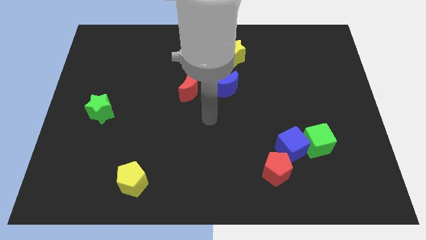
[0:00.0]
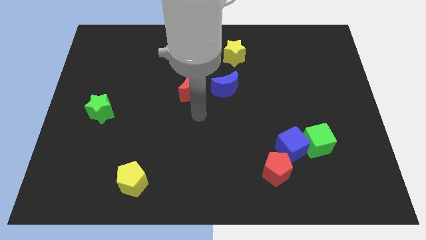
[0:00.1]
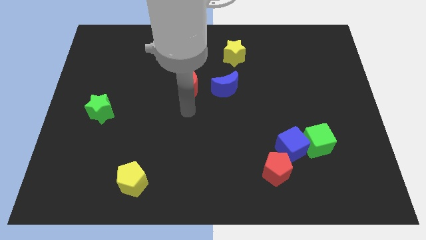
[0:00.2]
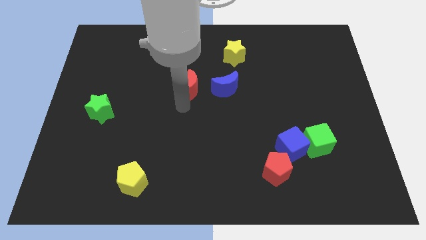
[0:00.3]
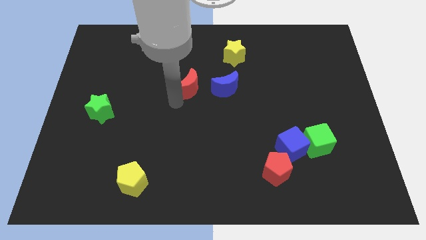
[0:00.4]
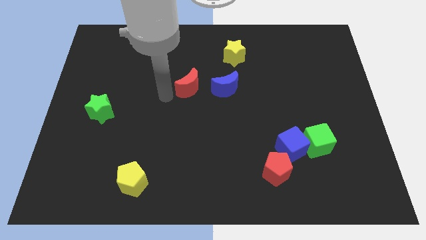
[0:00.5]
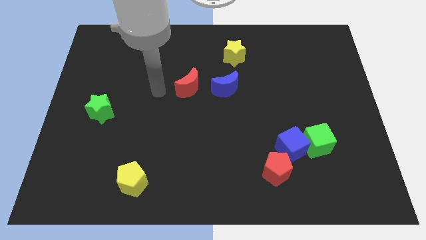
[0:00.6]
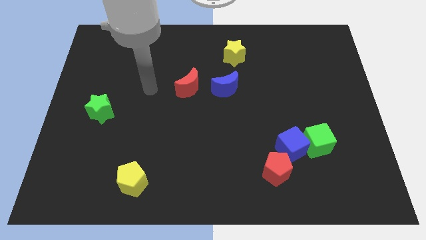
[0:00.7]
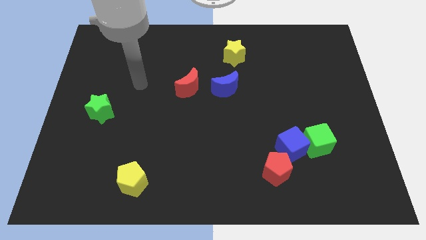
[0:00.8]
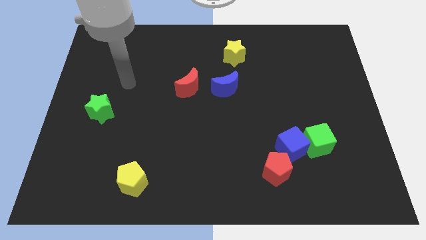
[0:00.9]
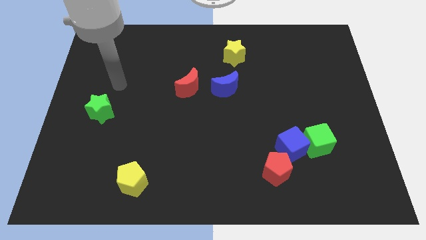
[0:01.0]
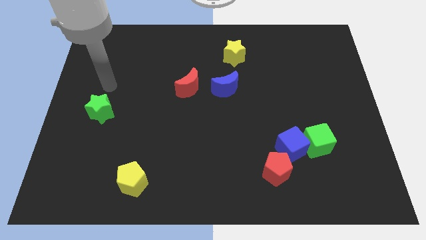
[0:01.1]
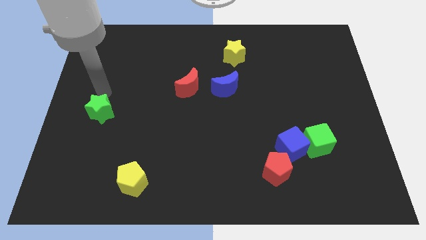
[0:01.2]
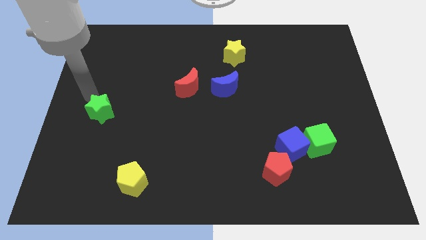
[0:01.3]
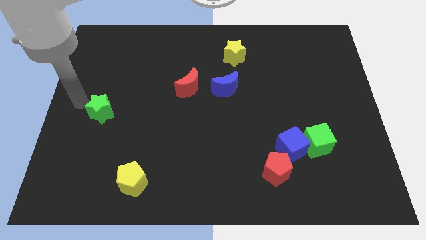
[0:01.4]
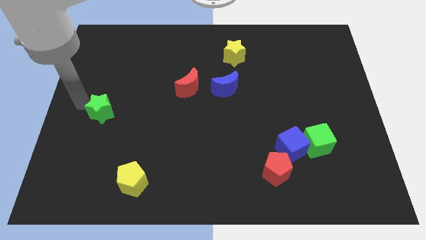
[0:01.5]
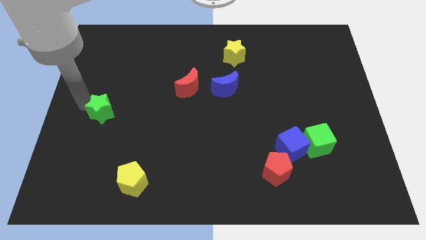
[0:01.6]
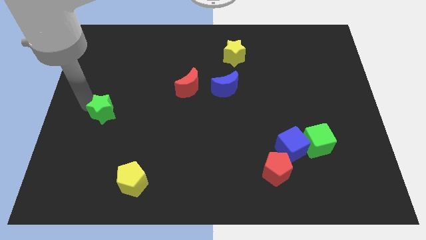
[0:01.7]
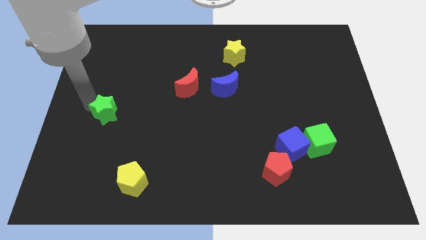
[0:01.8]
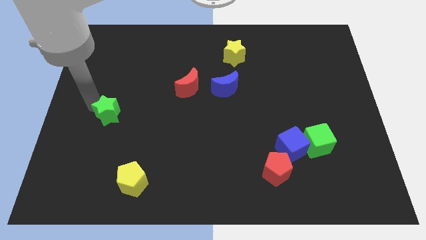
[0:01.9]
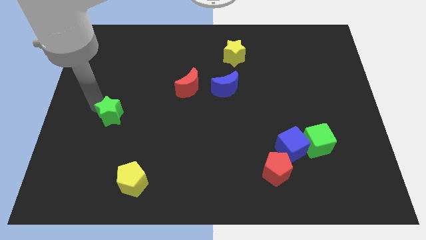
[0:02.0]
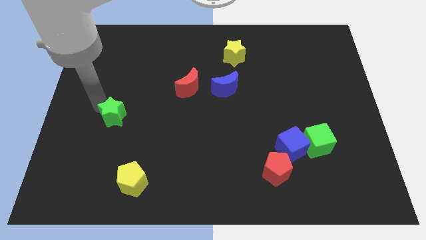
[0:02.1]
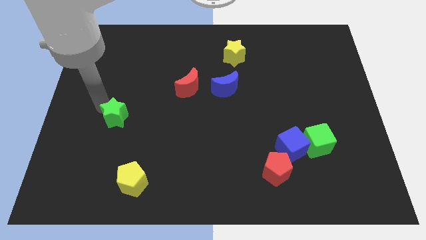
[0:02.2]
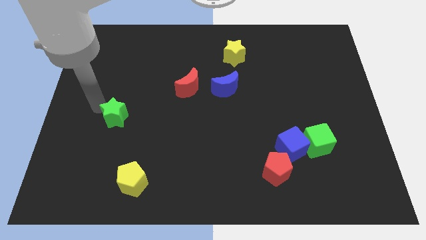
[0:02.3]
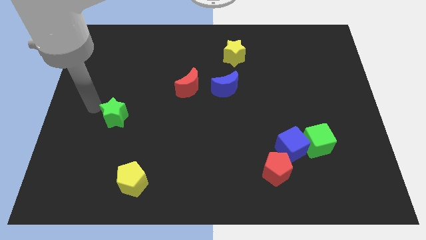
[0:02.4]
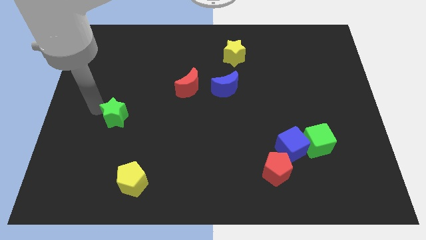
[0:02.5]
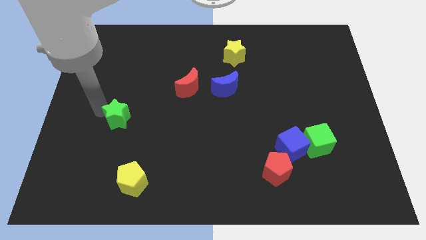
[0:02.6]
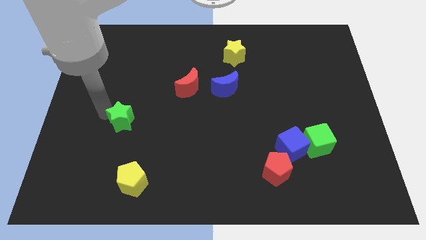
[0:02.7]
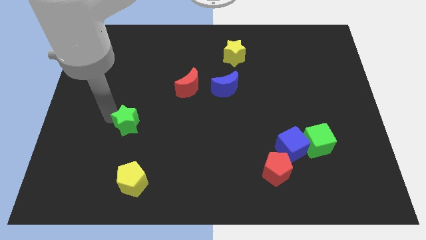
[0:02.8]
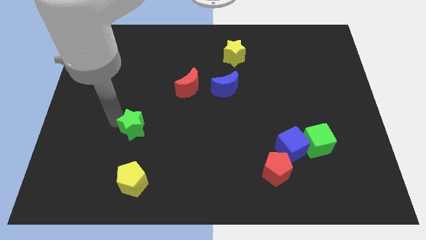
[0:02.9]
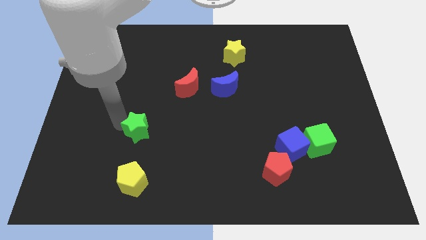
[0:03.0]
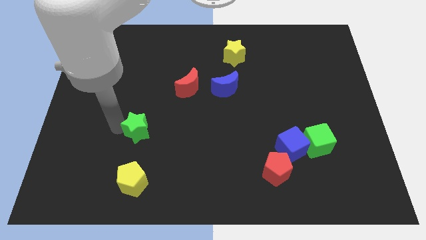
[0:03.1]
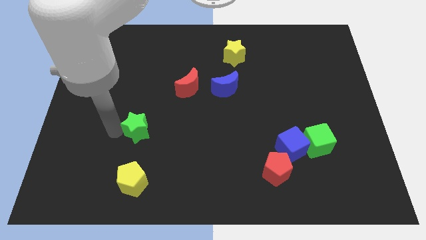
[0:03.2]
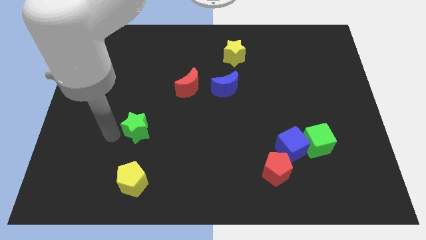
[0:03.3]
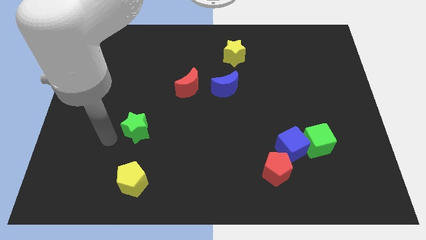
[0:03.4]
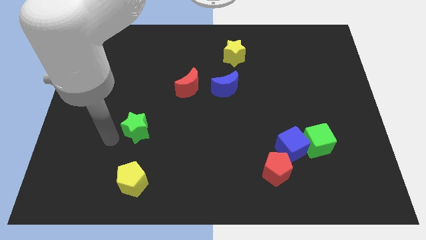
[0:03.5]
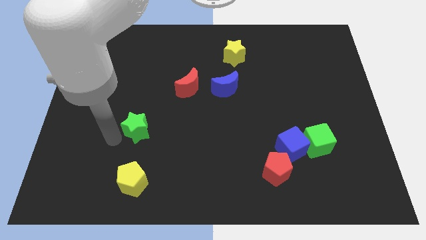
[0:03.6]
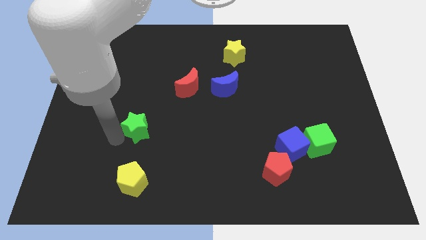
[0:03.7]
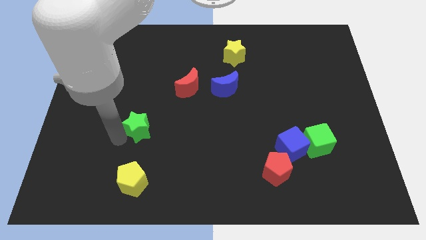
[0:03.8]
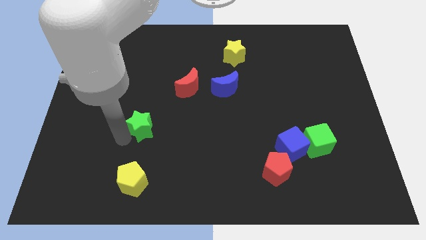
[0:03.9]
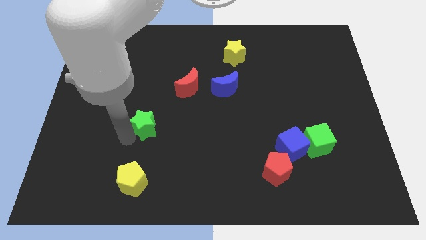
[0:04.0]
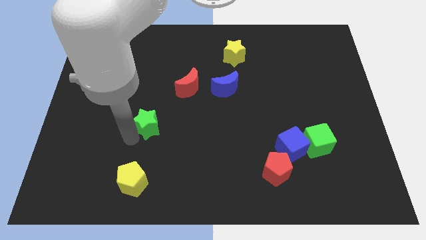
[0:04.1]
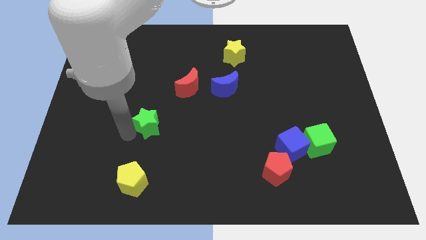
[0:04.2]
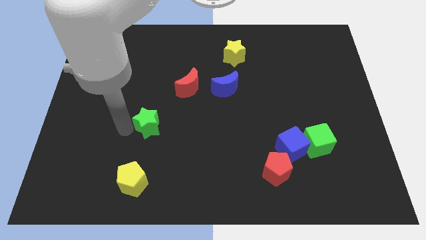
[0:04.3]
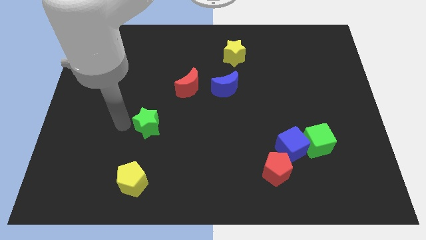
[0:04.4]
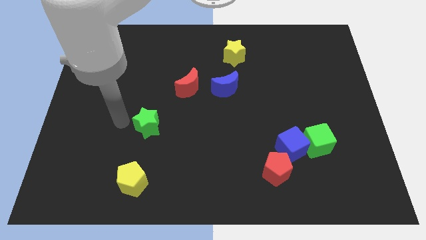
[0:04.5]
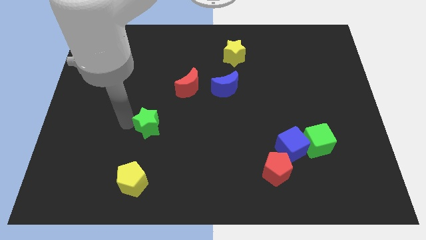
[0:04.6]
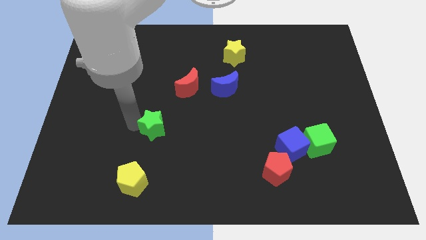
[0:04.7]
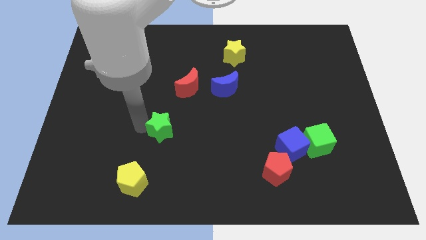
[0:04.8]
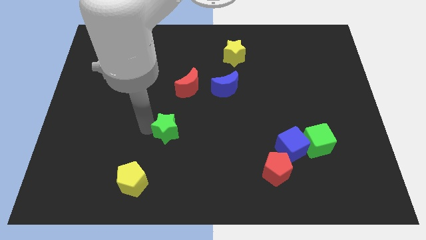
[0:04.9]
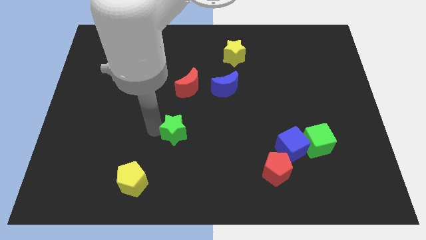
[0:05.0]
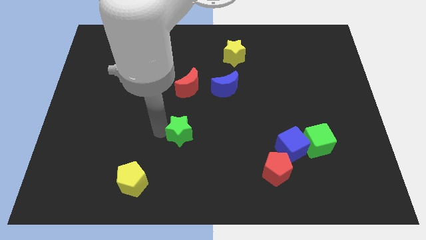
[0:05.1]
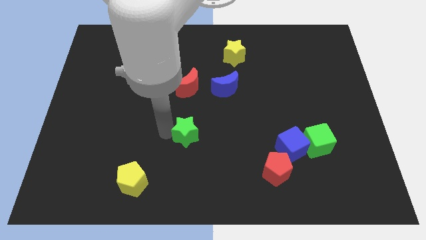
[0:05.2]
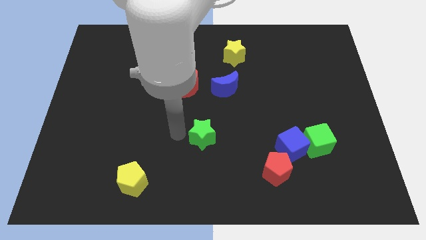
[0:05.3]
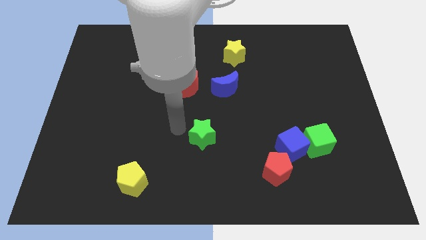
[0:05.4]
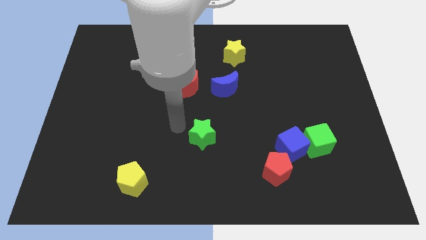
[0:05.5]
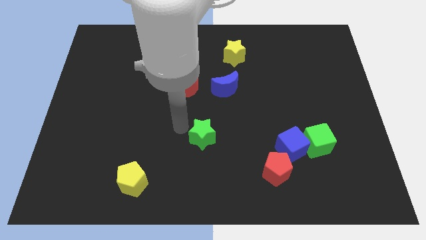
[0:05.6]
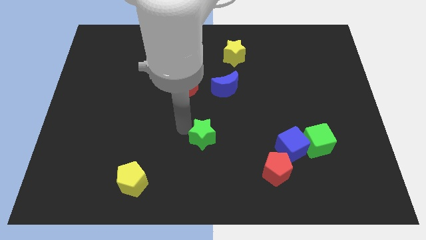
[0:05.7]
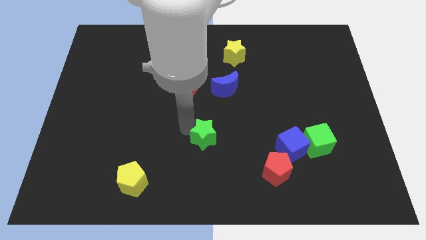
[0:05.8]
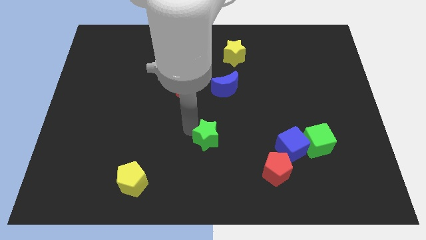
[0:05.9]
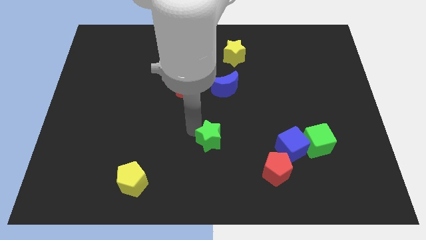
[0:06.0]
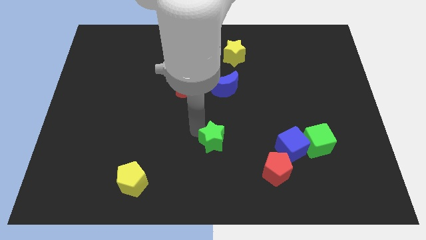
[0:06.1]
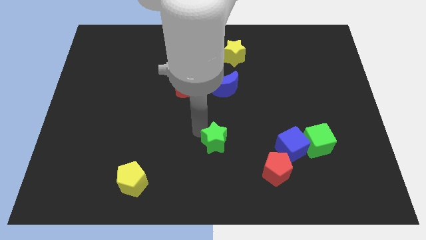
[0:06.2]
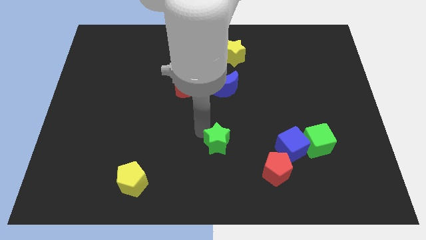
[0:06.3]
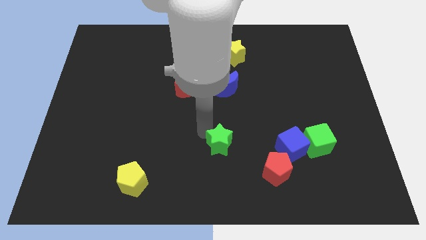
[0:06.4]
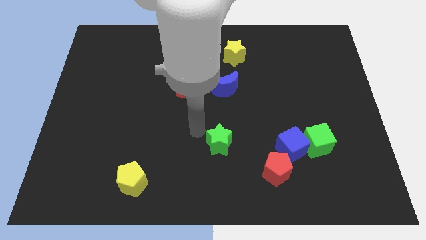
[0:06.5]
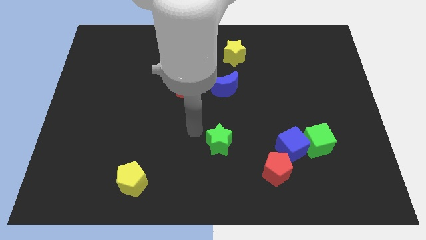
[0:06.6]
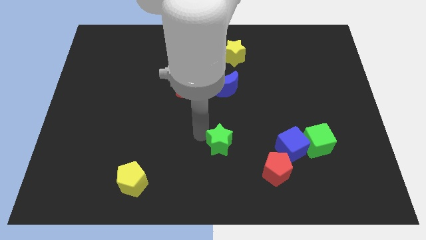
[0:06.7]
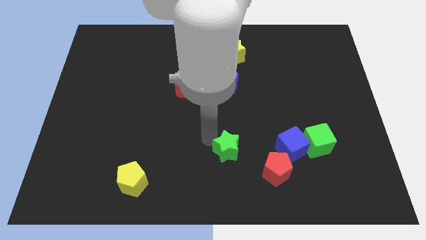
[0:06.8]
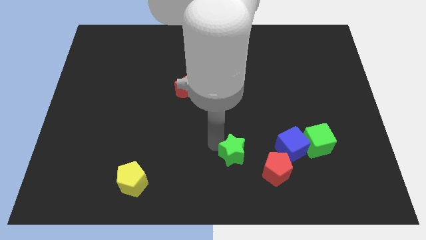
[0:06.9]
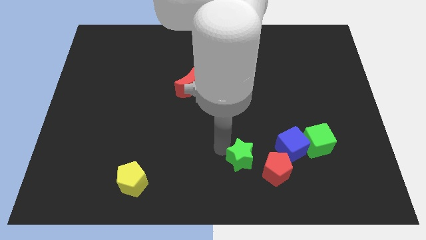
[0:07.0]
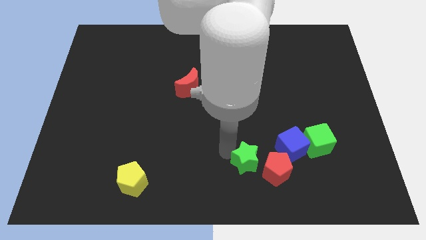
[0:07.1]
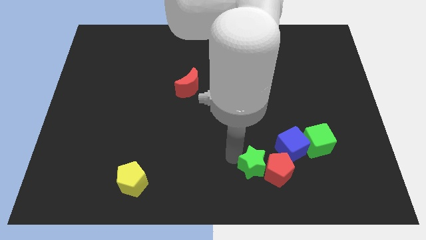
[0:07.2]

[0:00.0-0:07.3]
slide the green star close to the red pentagon
